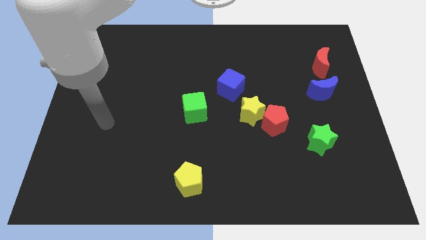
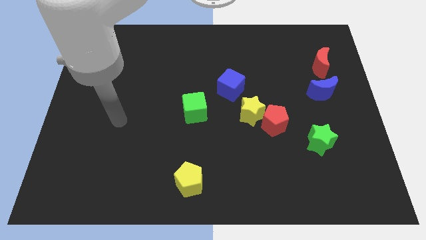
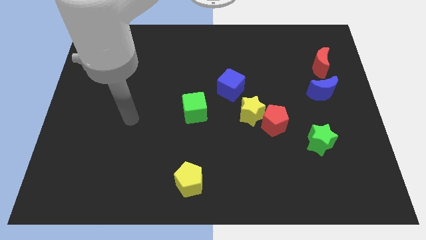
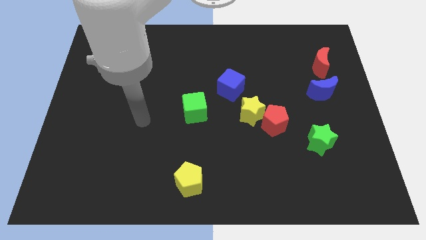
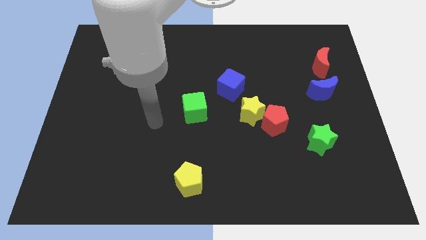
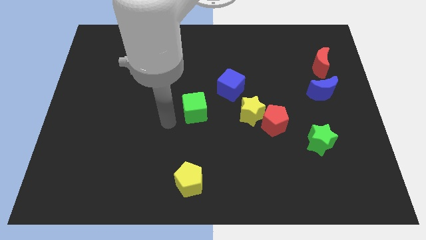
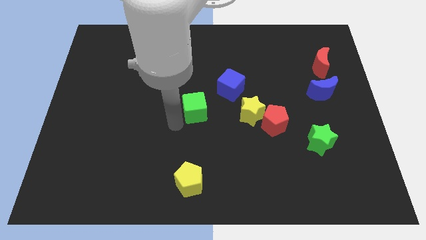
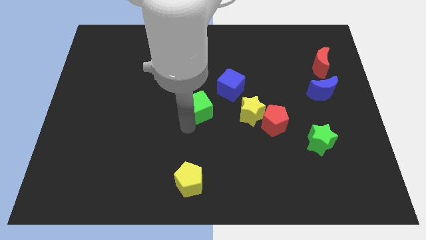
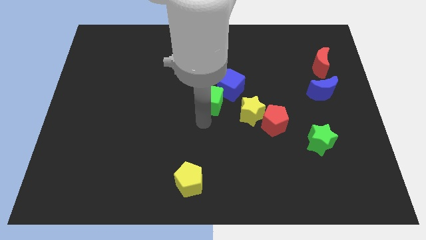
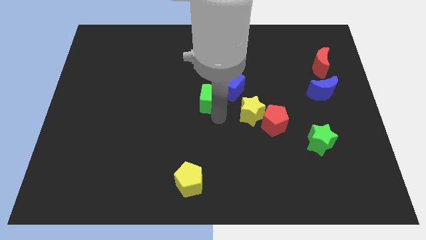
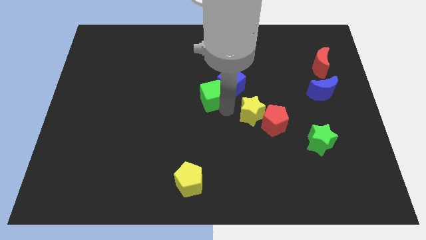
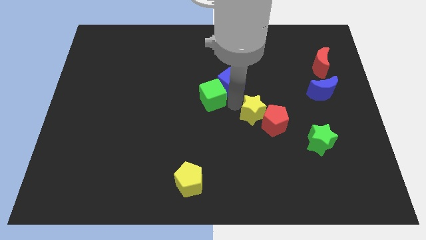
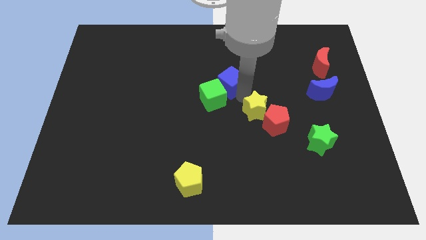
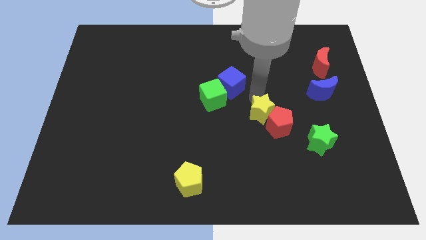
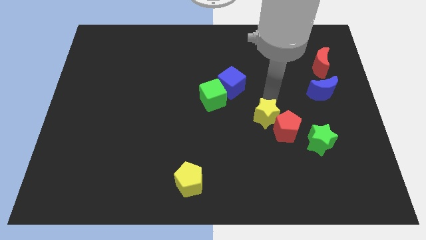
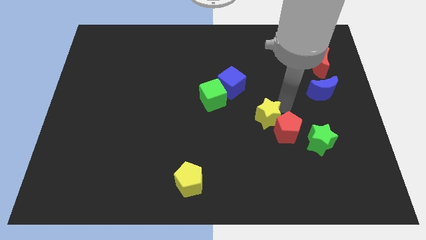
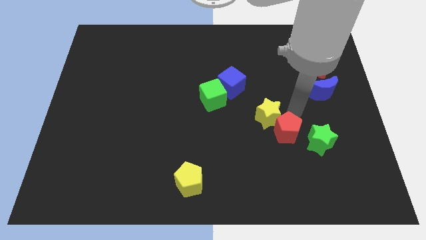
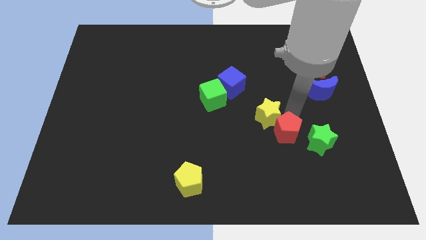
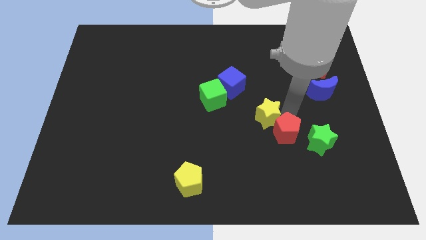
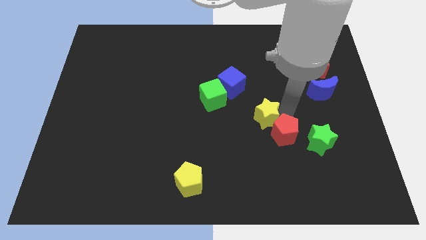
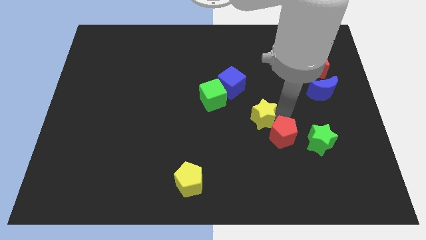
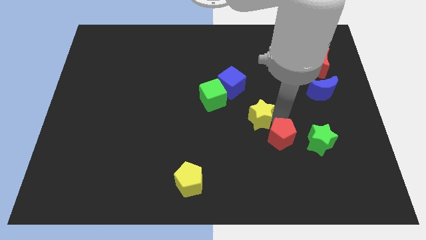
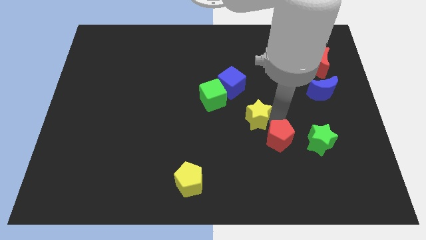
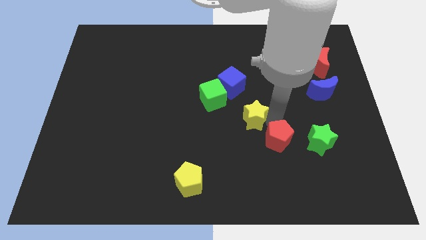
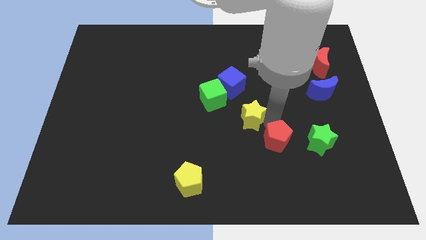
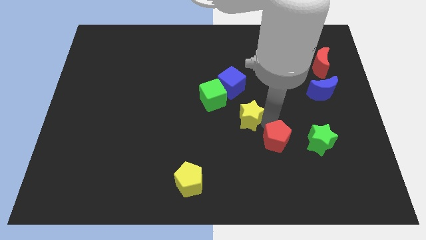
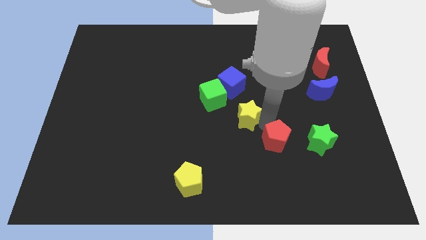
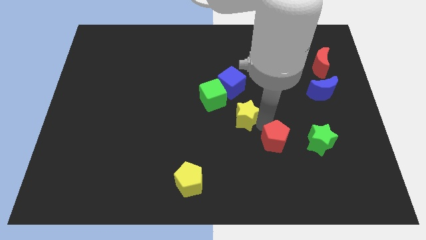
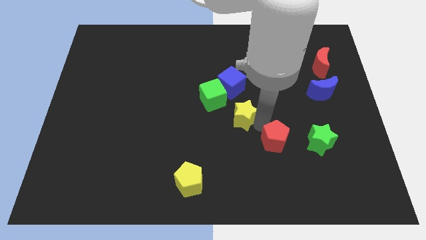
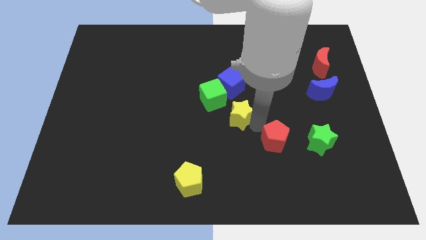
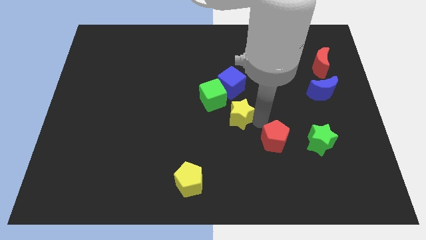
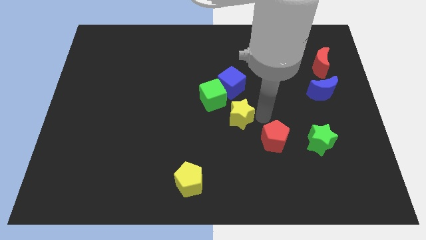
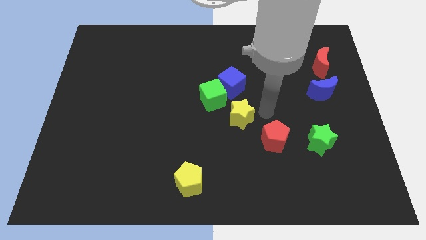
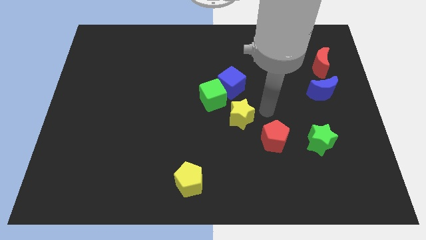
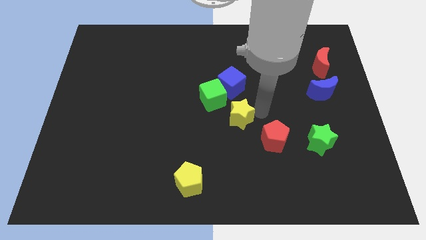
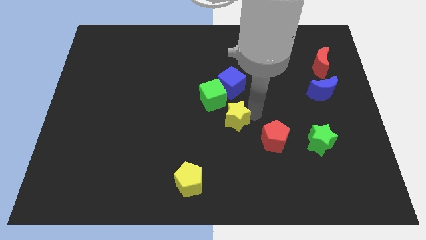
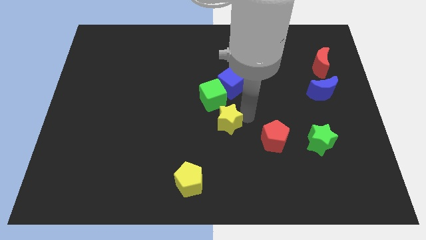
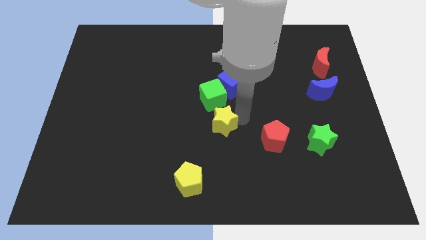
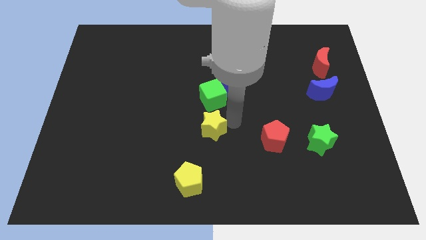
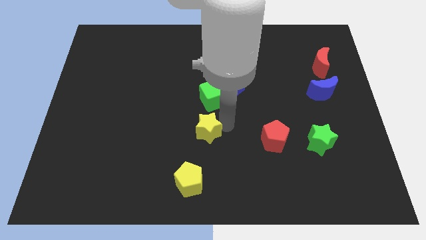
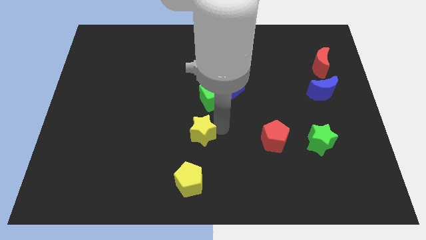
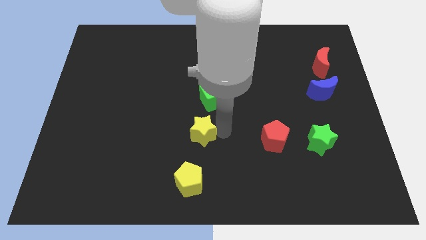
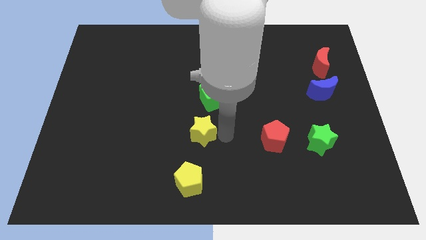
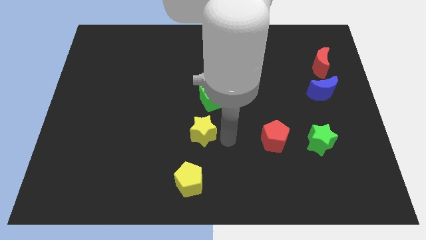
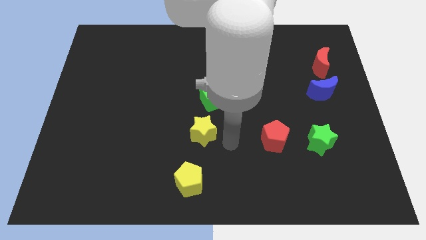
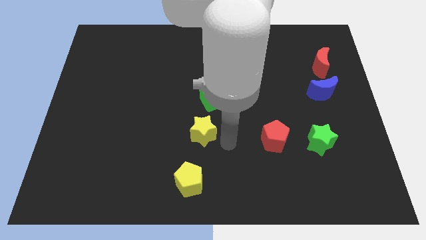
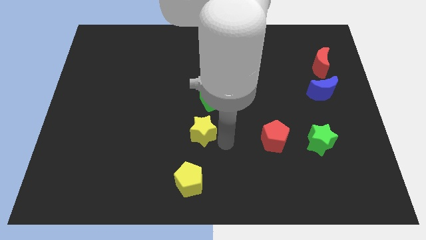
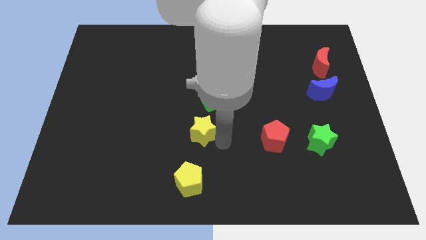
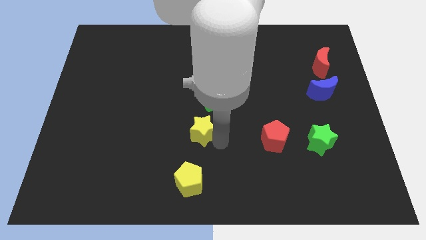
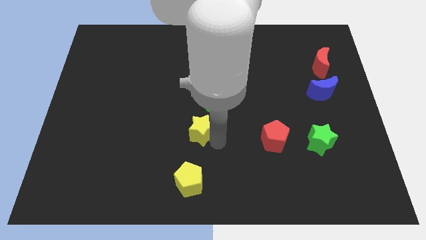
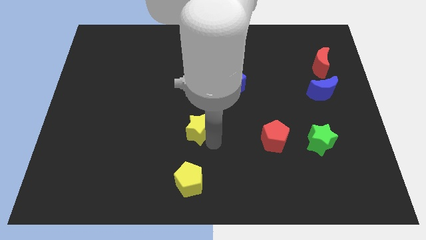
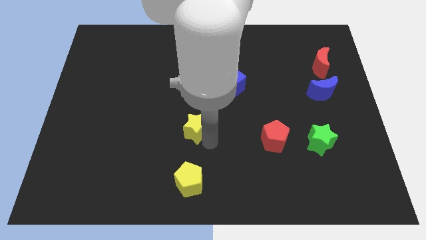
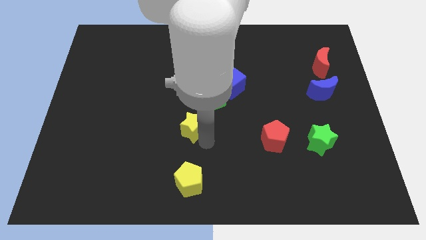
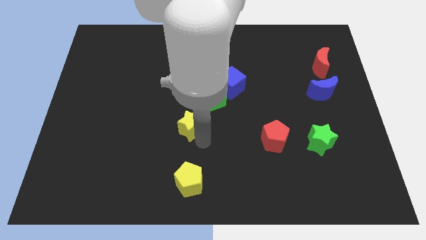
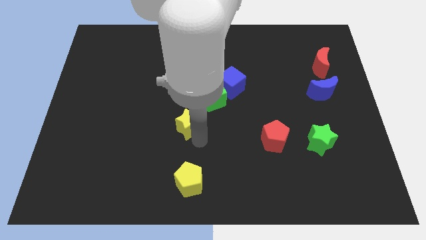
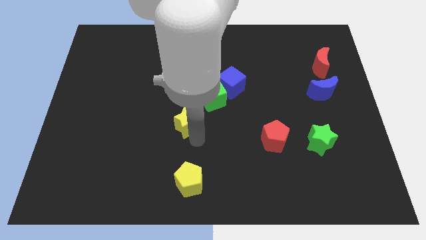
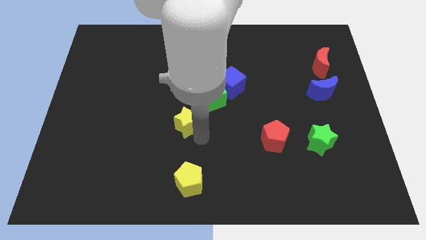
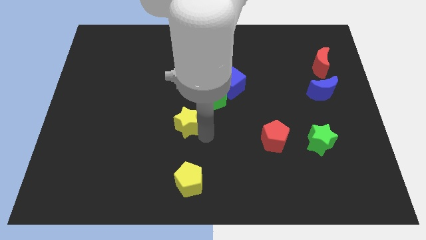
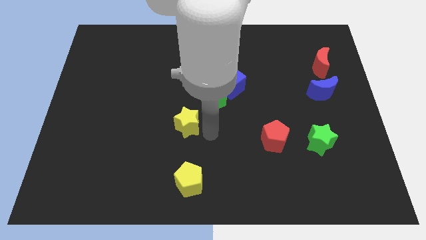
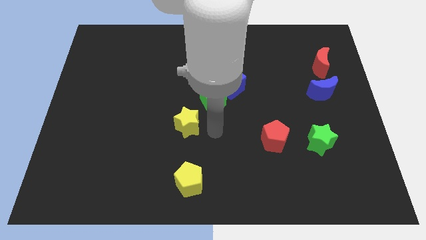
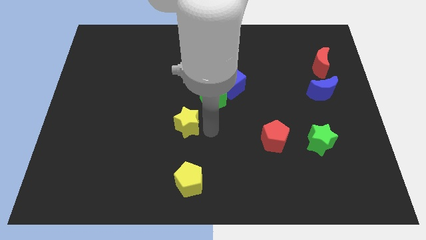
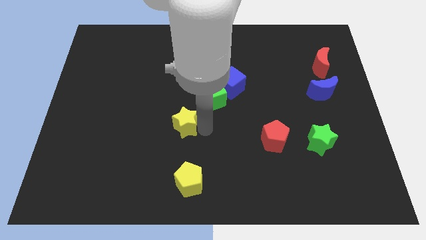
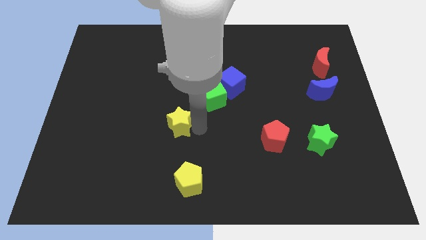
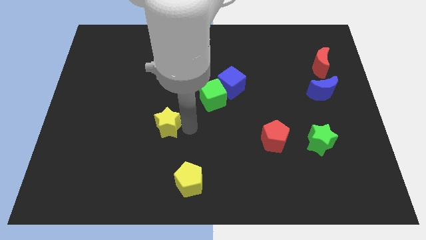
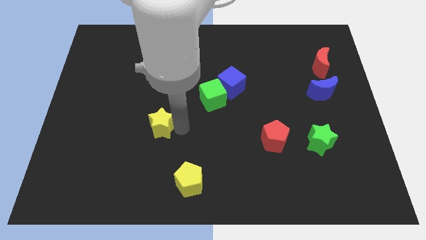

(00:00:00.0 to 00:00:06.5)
push the yellow star to the left

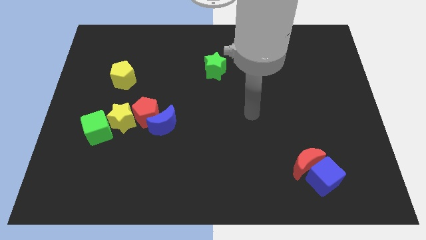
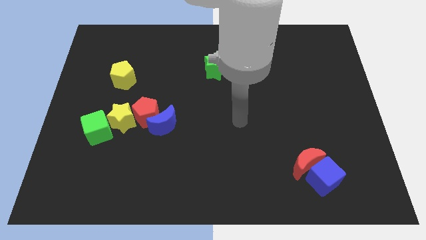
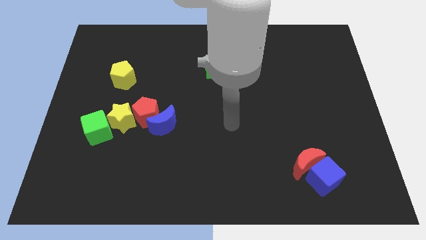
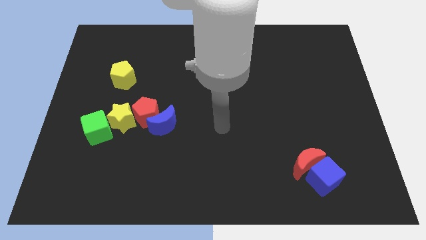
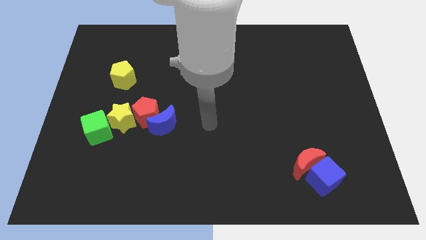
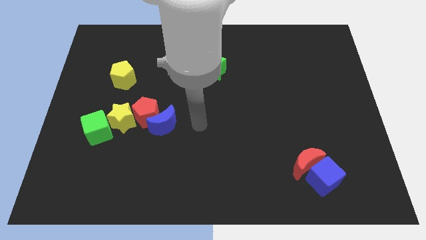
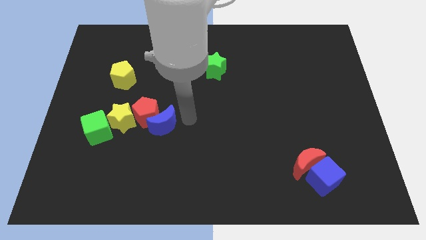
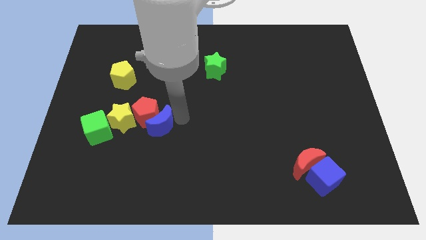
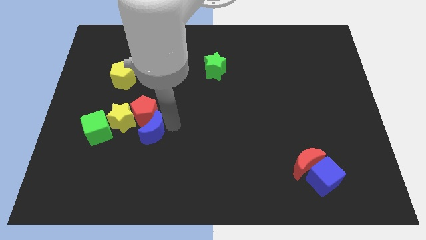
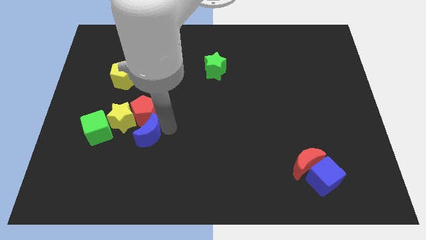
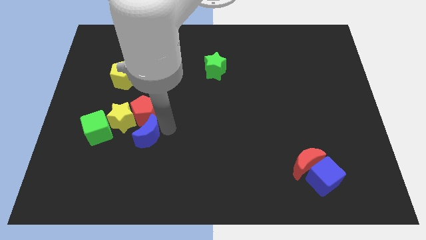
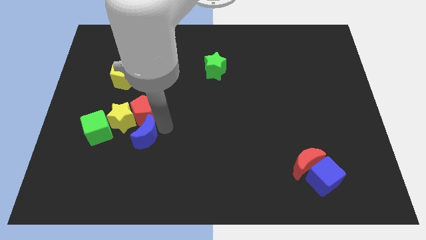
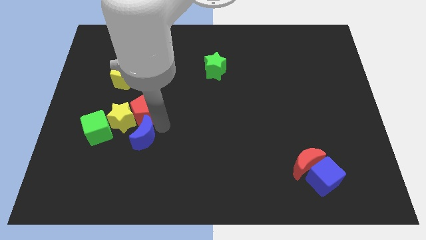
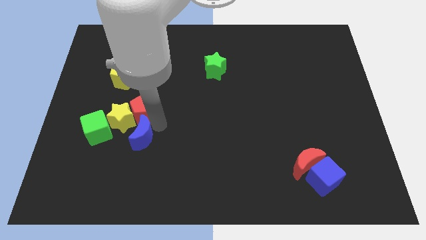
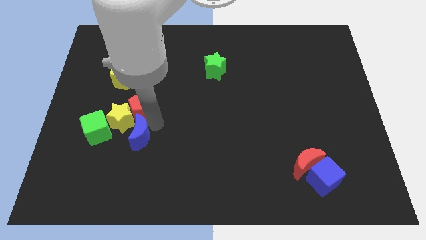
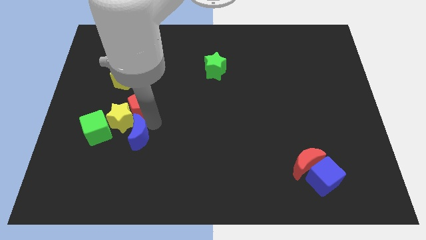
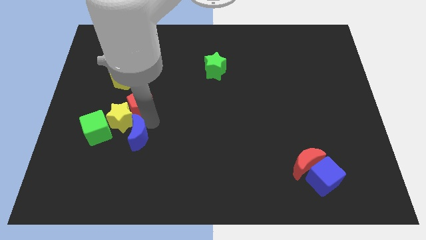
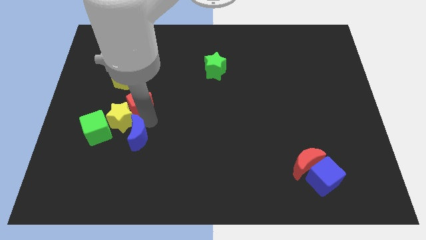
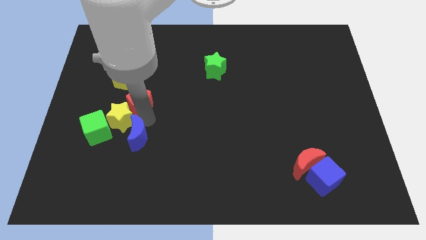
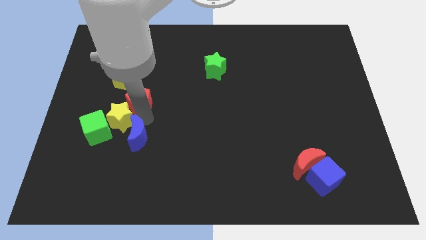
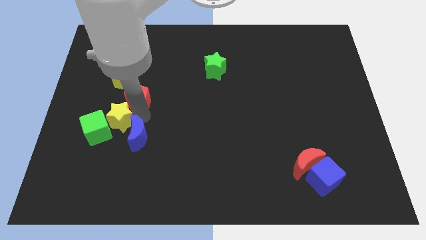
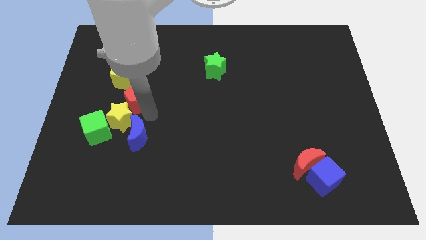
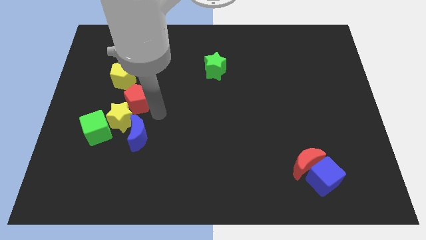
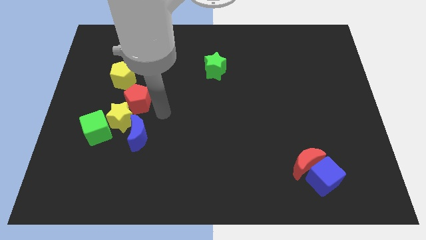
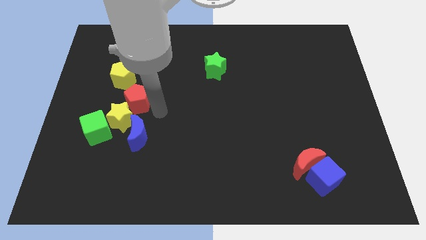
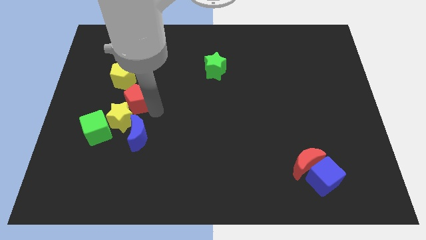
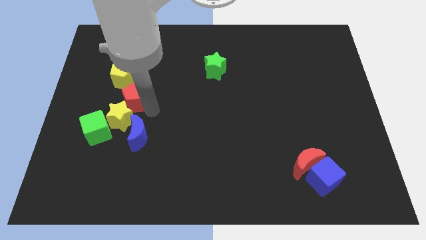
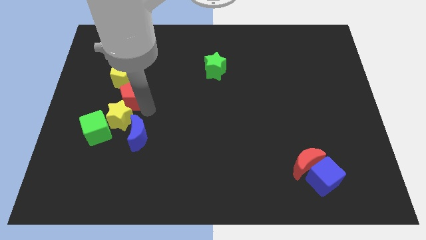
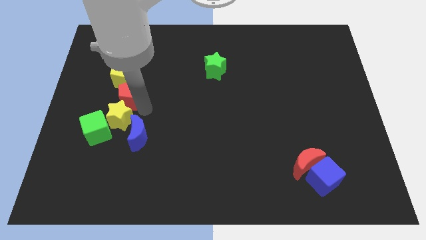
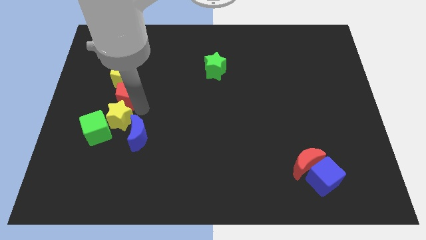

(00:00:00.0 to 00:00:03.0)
push the red pentagon somewhat up and to the left diagonally
